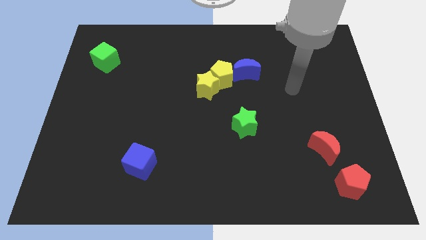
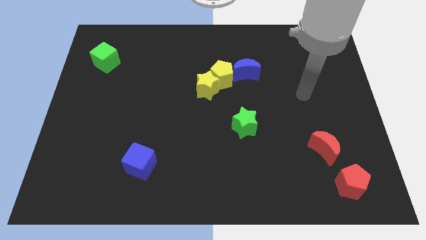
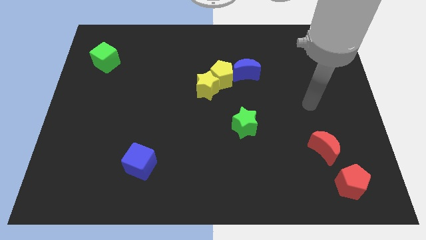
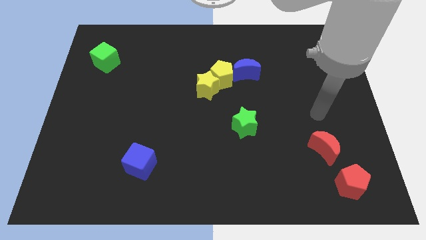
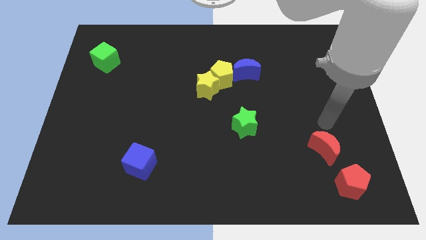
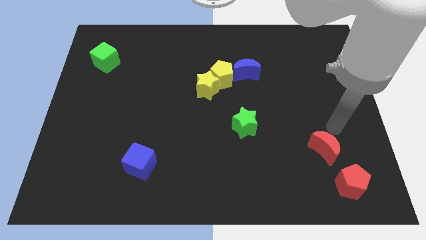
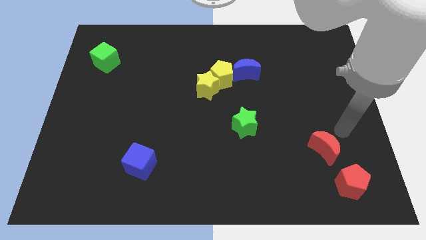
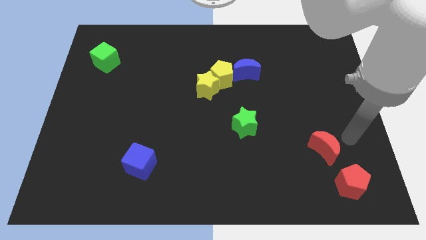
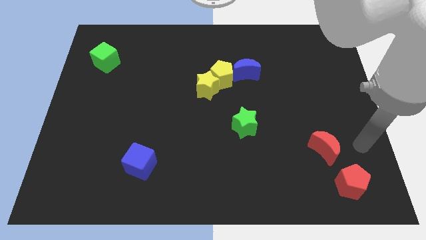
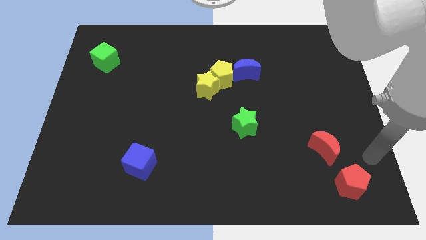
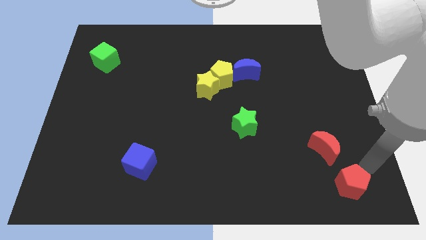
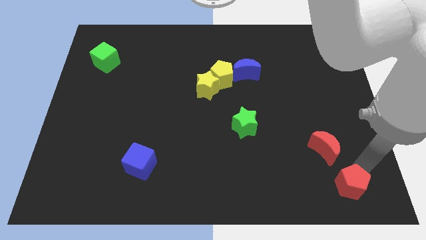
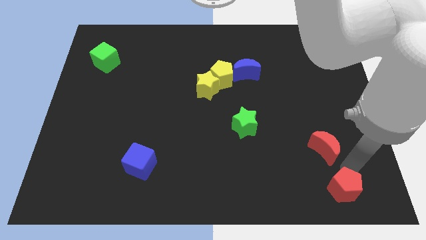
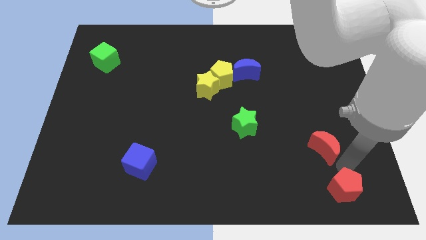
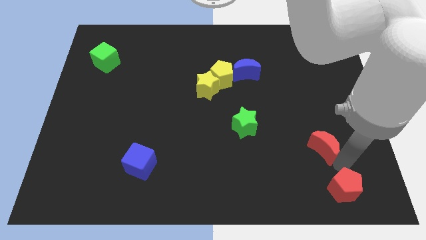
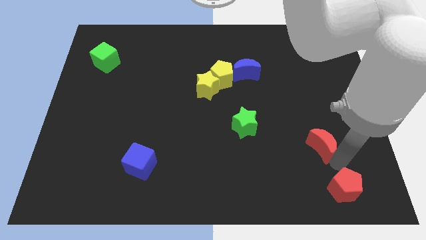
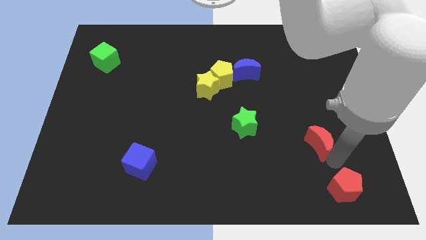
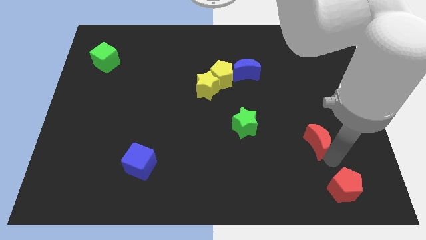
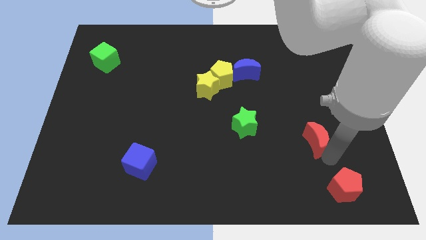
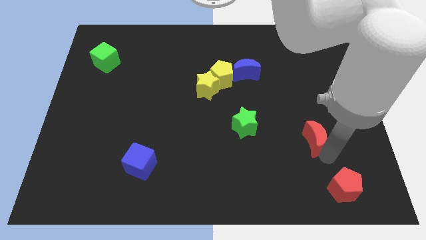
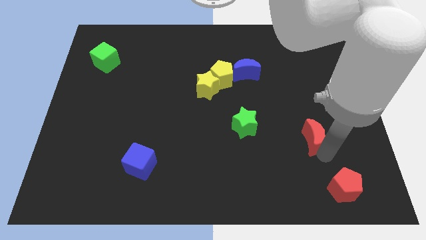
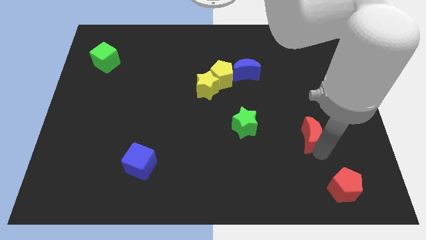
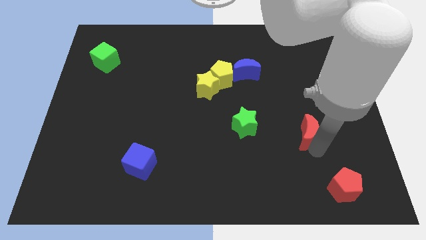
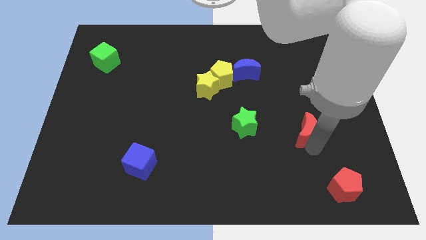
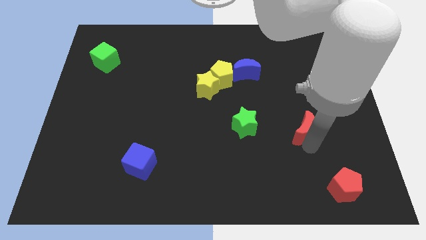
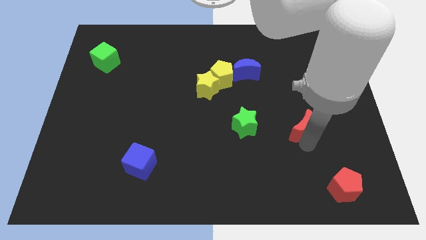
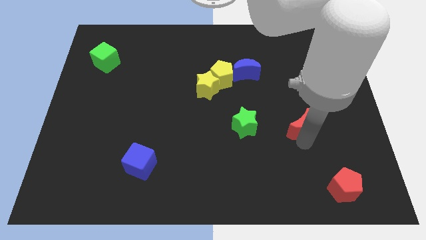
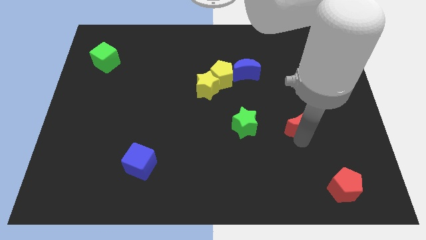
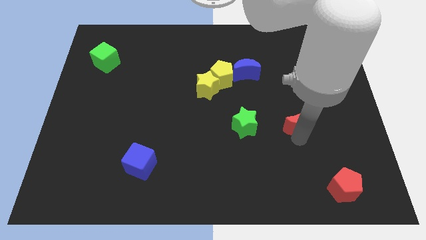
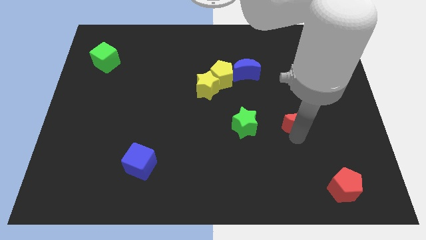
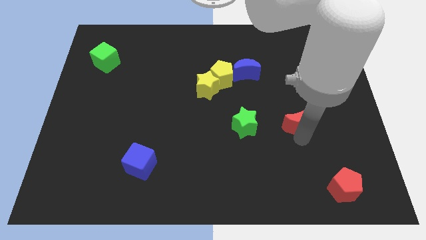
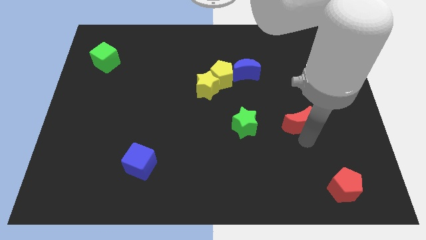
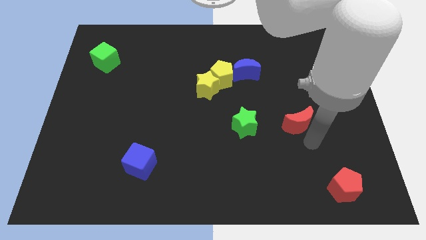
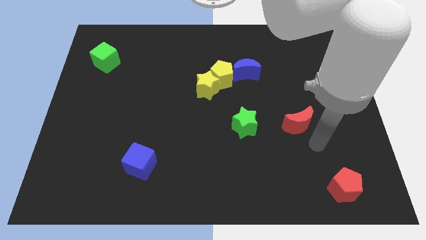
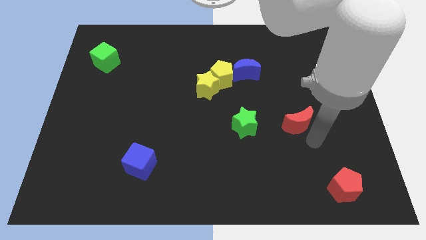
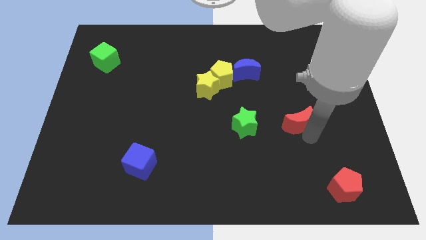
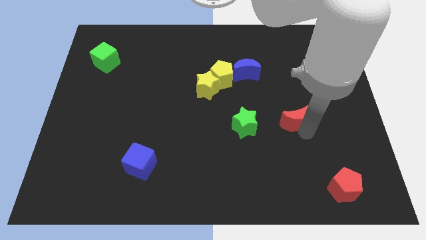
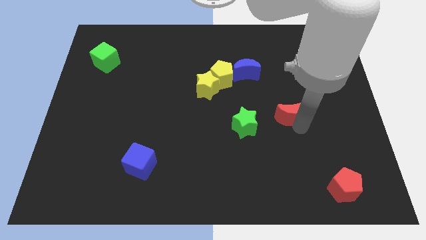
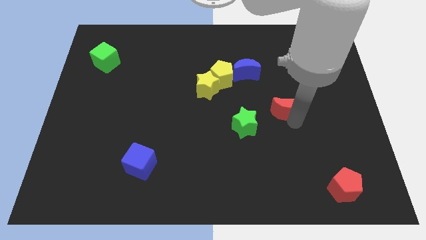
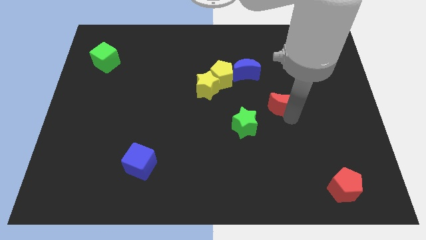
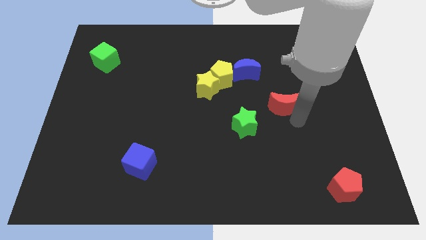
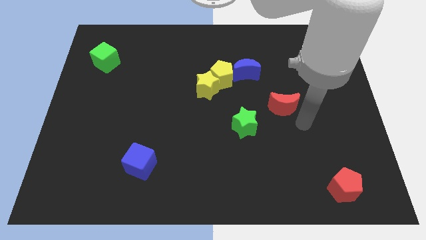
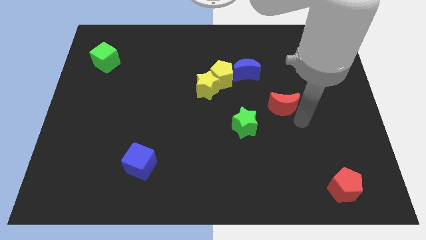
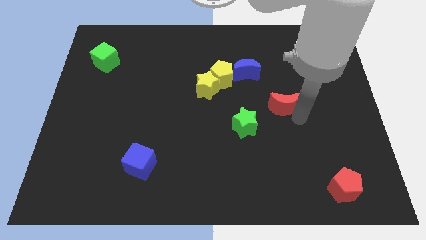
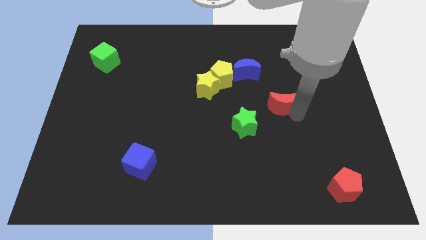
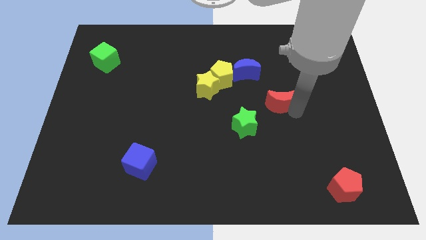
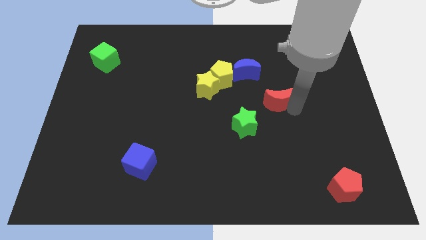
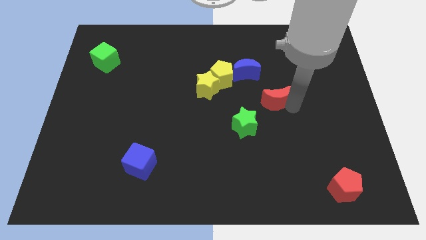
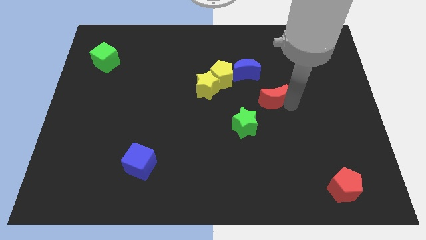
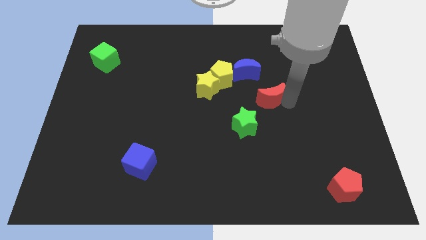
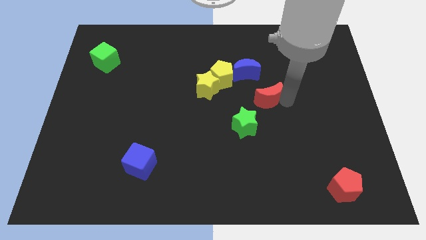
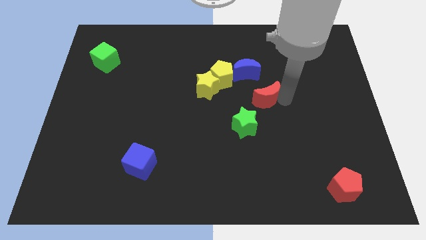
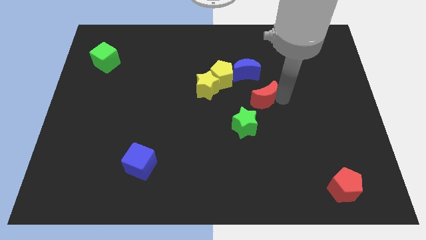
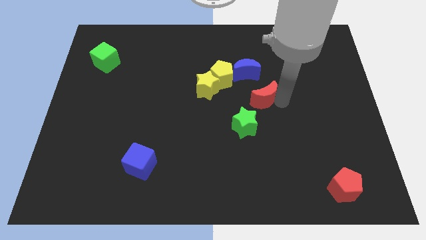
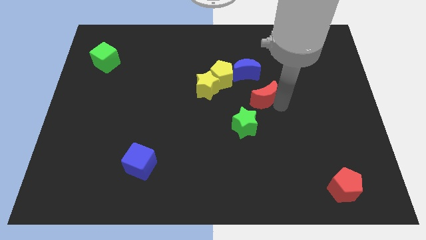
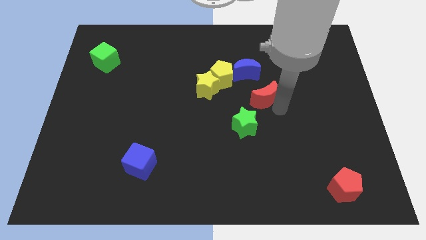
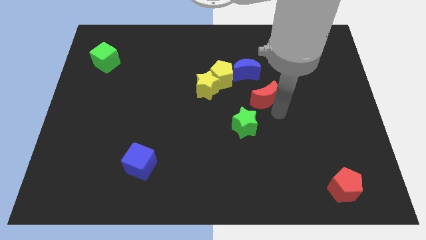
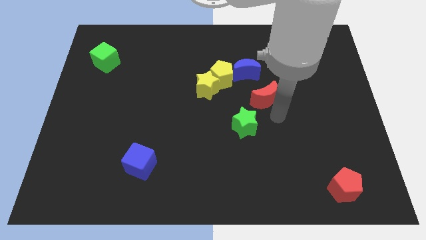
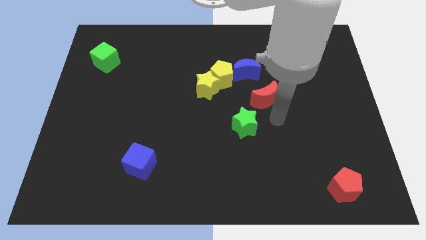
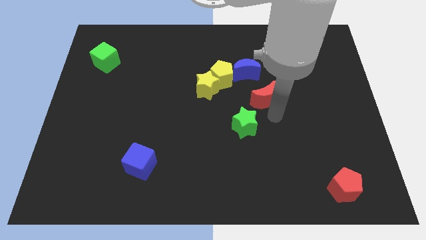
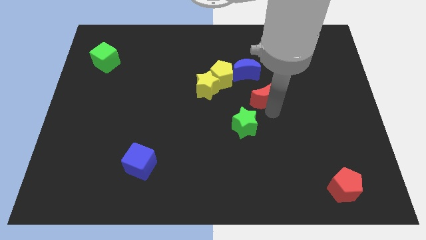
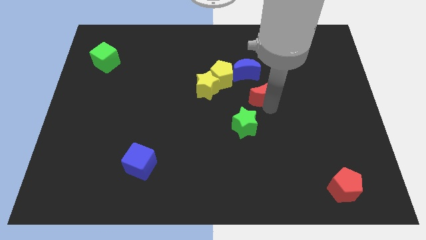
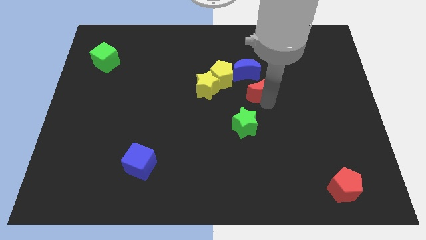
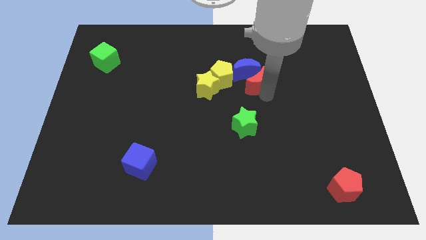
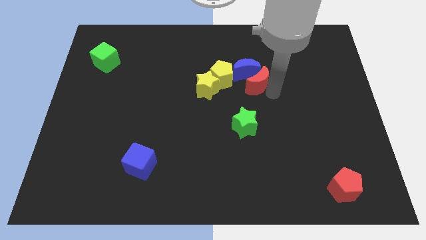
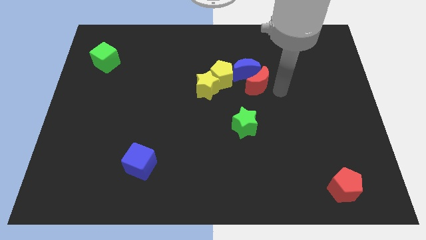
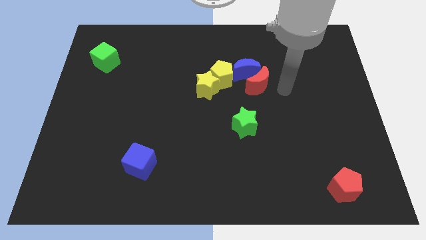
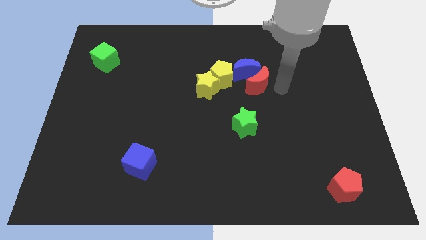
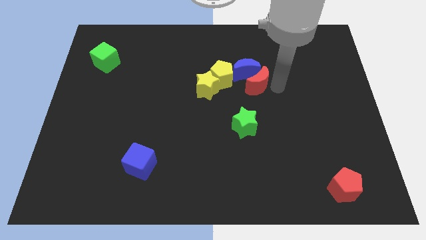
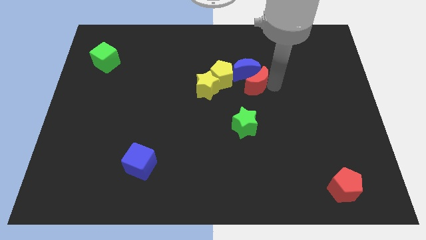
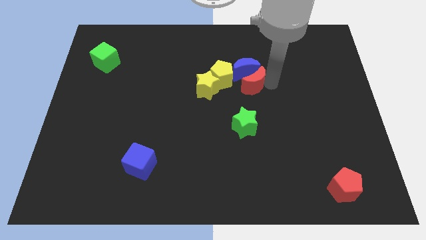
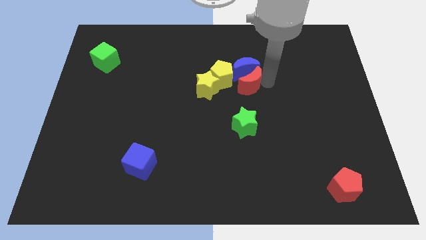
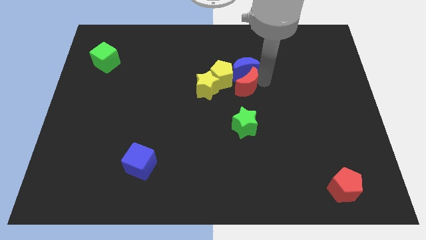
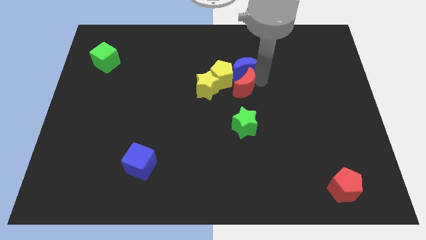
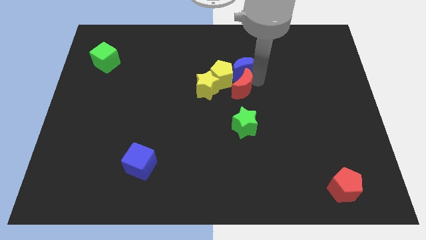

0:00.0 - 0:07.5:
push the red moon next to the yellow pentagon
